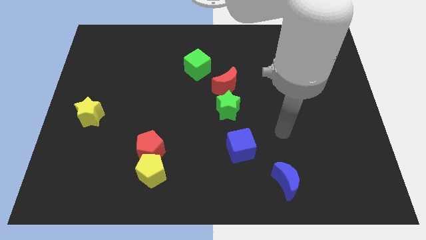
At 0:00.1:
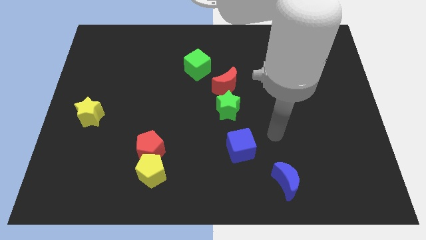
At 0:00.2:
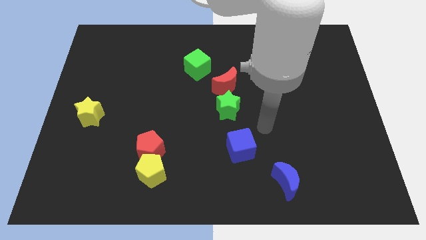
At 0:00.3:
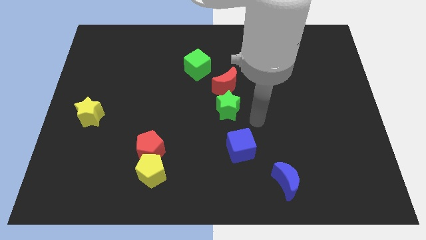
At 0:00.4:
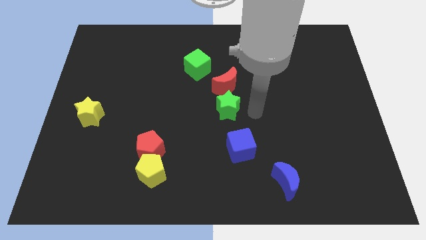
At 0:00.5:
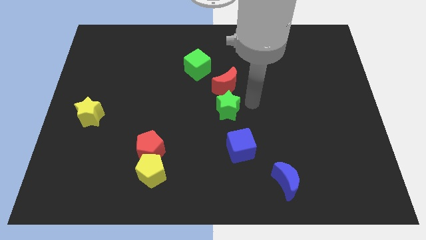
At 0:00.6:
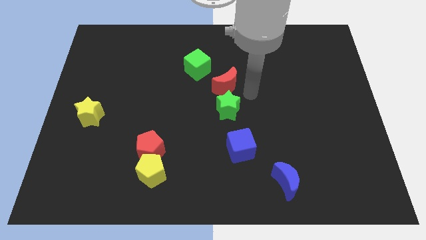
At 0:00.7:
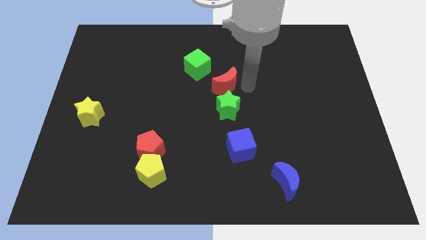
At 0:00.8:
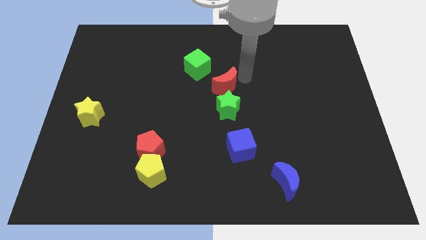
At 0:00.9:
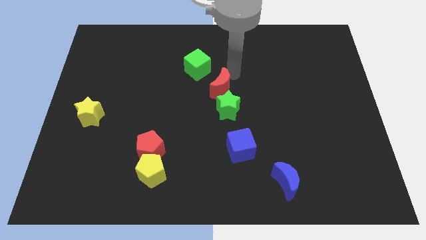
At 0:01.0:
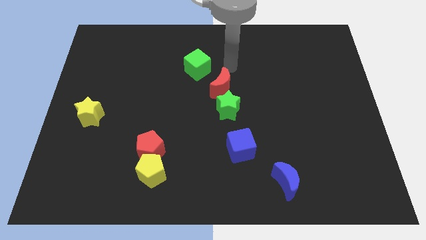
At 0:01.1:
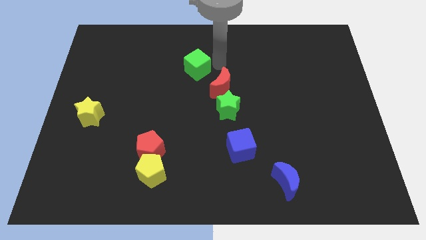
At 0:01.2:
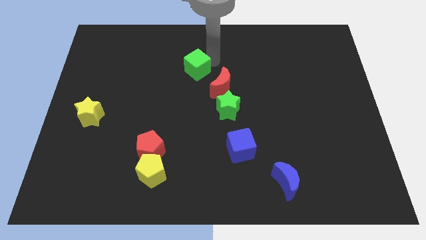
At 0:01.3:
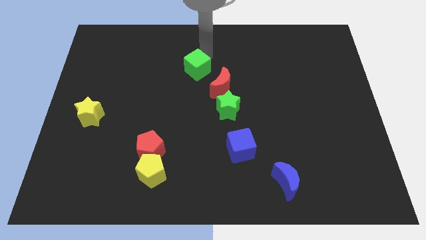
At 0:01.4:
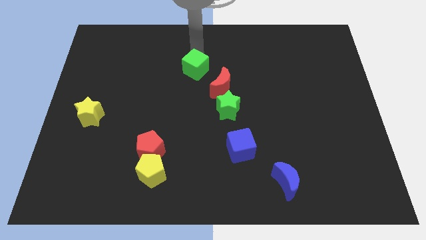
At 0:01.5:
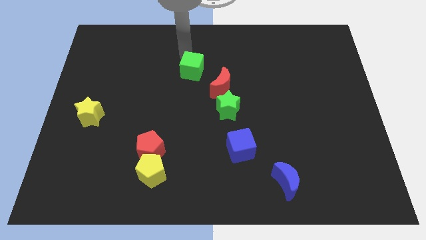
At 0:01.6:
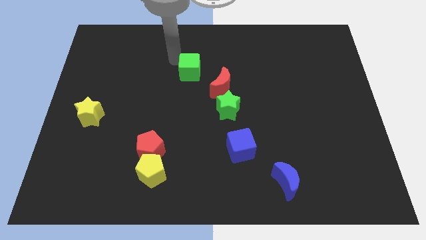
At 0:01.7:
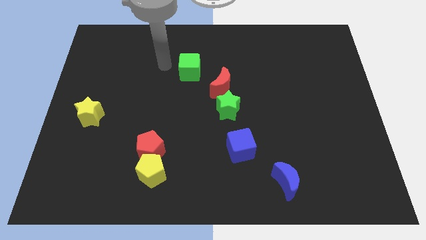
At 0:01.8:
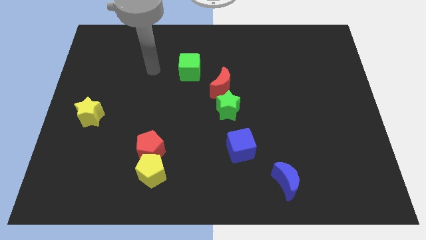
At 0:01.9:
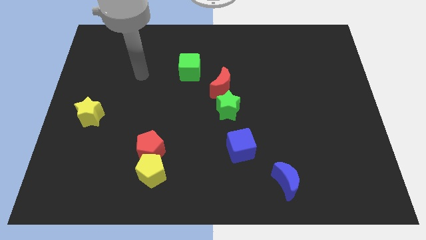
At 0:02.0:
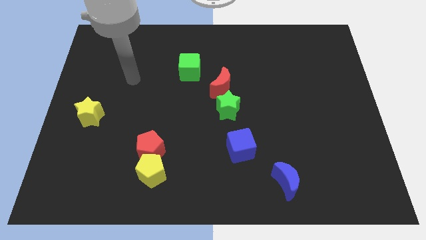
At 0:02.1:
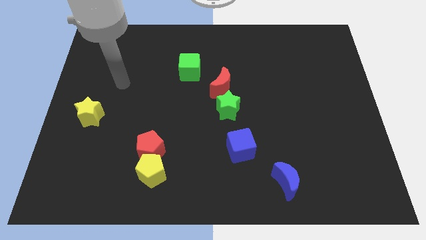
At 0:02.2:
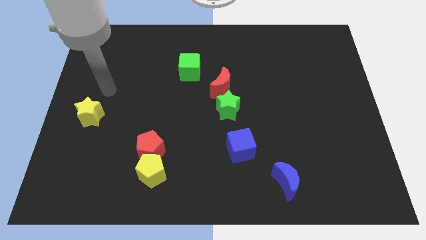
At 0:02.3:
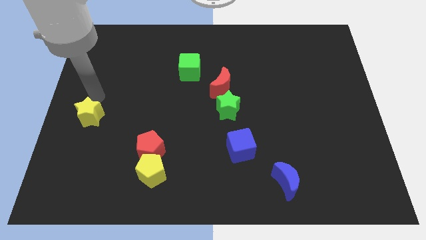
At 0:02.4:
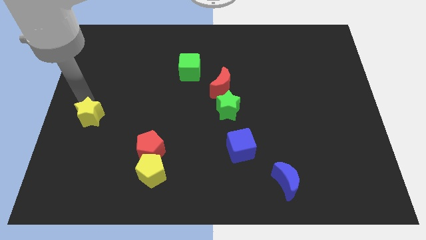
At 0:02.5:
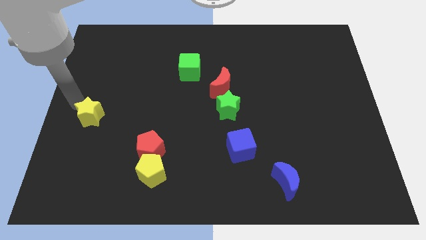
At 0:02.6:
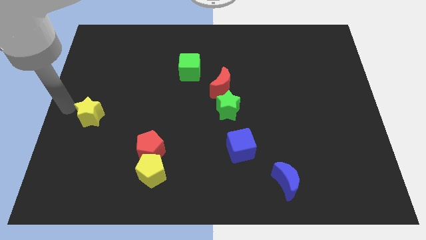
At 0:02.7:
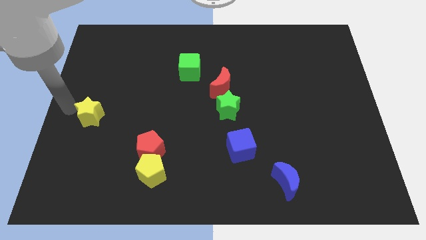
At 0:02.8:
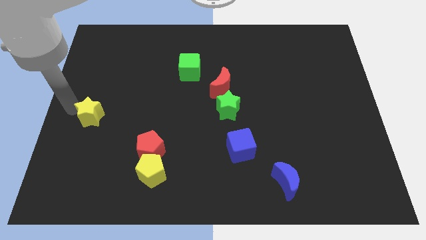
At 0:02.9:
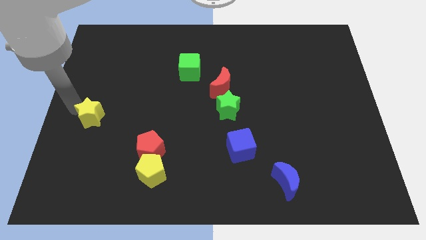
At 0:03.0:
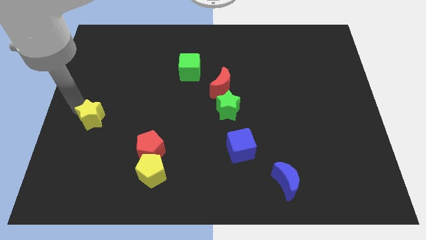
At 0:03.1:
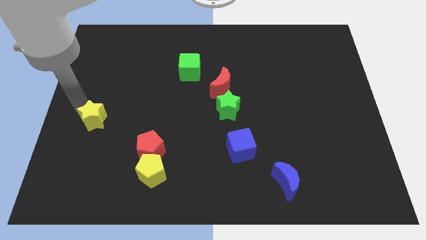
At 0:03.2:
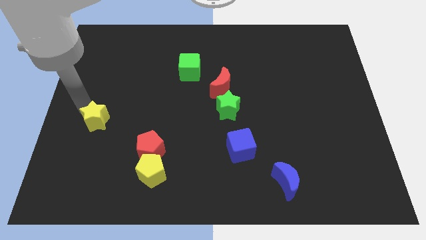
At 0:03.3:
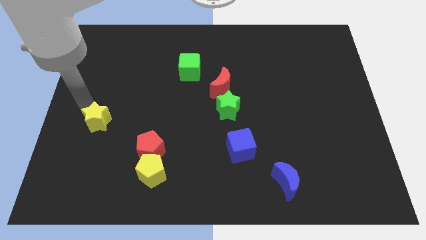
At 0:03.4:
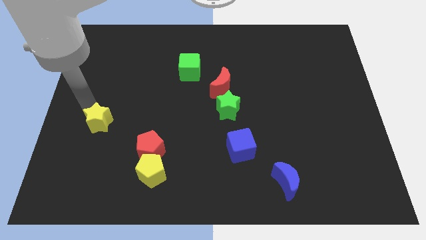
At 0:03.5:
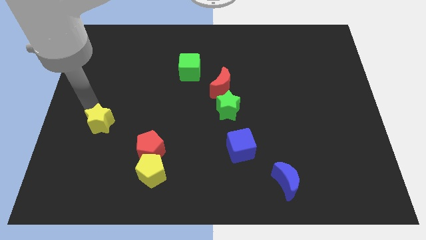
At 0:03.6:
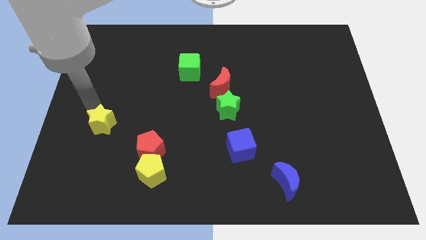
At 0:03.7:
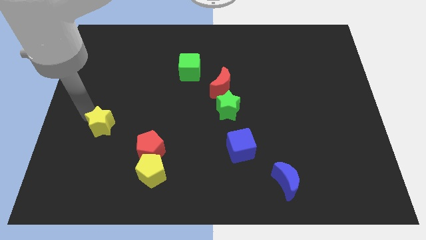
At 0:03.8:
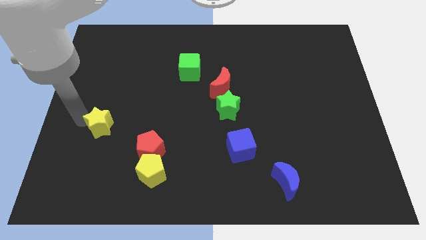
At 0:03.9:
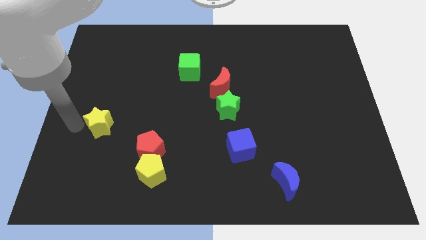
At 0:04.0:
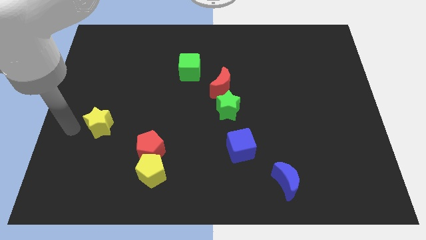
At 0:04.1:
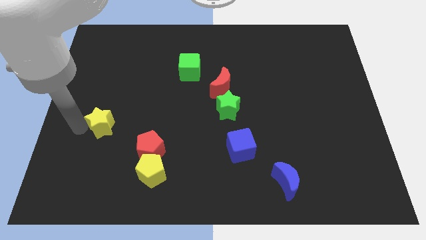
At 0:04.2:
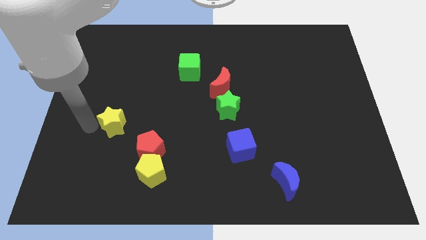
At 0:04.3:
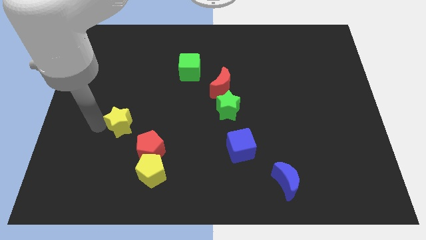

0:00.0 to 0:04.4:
push the yellow star right a little bit

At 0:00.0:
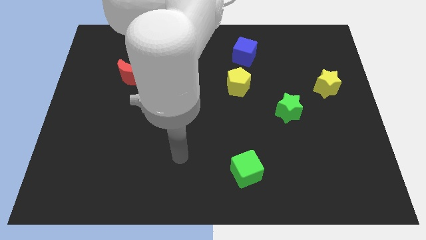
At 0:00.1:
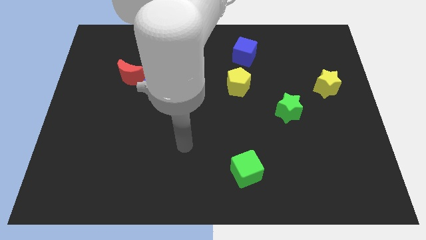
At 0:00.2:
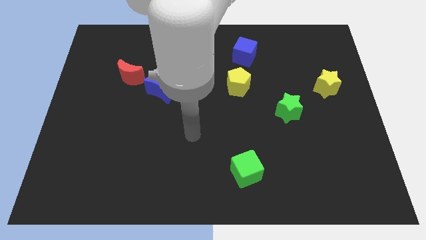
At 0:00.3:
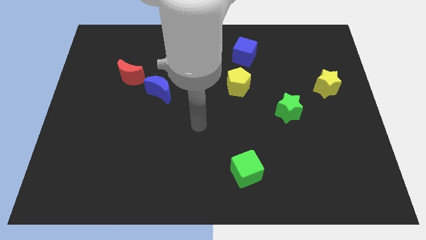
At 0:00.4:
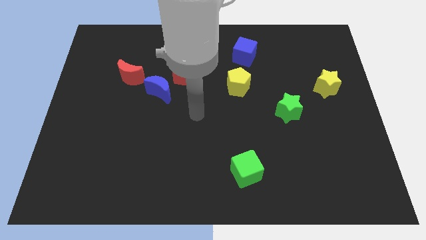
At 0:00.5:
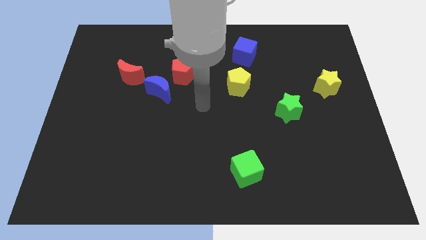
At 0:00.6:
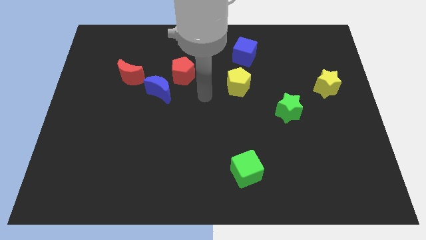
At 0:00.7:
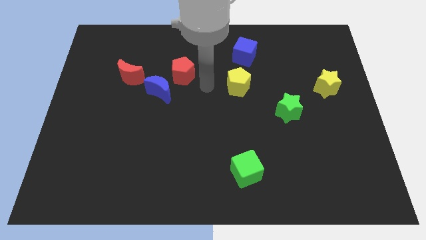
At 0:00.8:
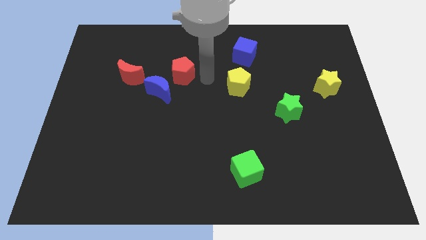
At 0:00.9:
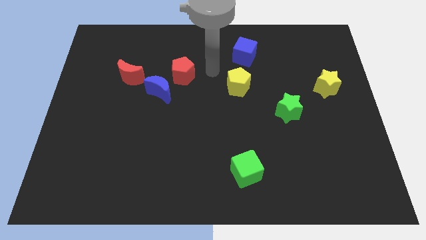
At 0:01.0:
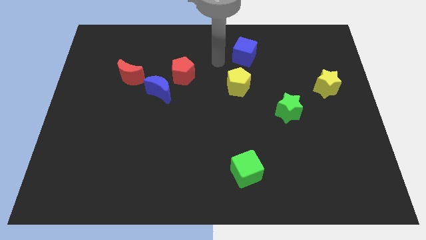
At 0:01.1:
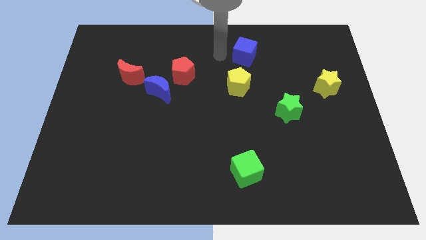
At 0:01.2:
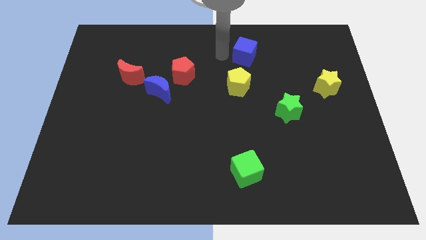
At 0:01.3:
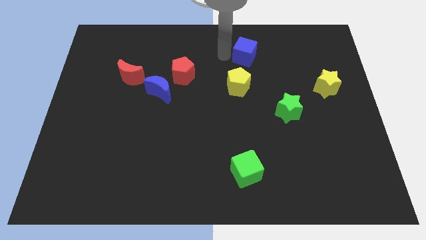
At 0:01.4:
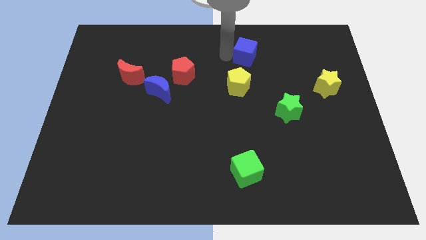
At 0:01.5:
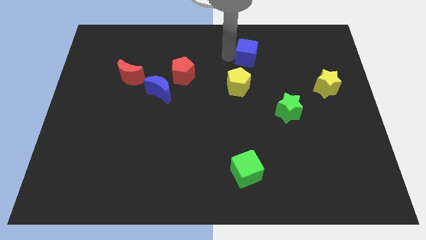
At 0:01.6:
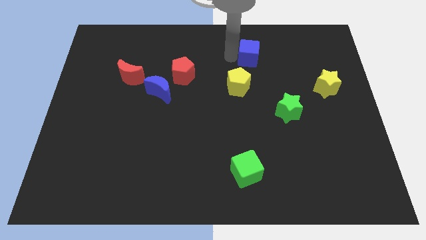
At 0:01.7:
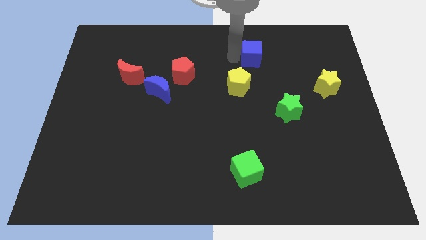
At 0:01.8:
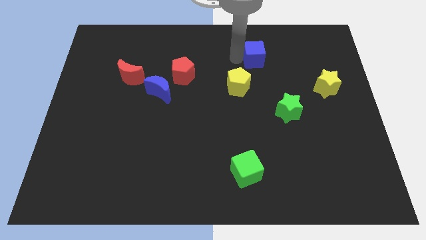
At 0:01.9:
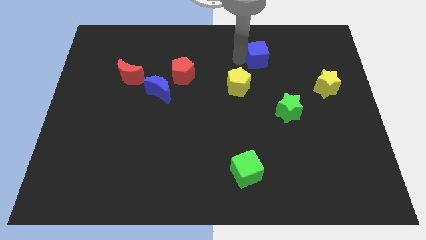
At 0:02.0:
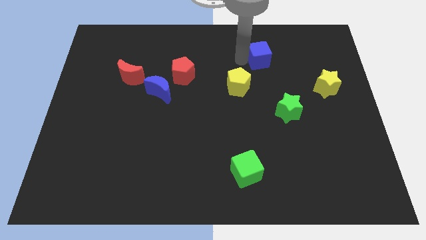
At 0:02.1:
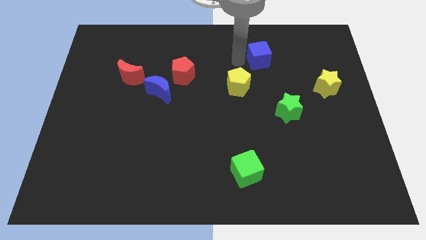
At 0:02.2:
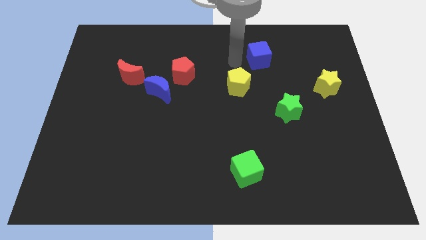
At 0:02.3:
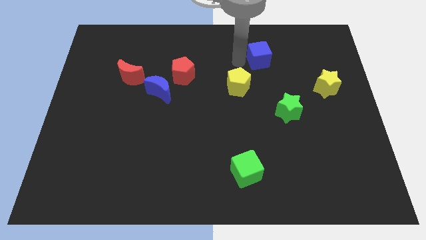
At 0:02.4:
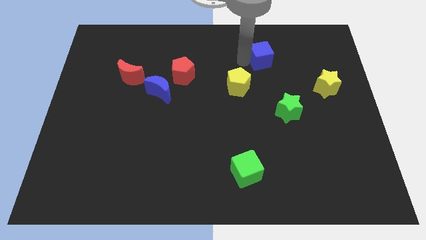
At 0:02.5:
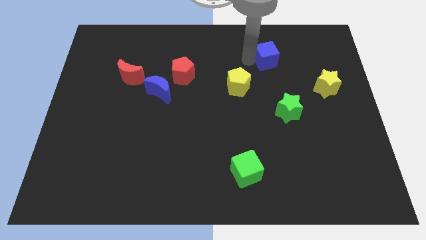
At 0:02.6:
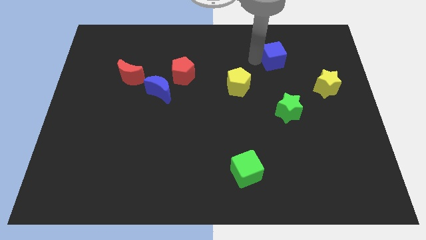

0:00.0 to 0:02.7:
move the blue cube a little bit right

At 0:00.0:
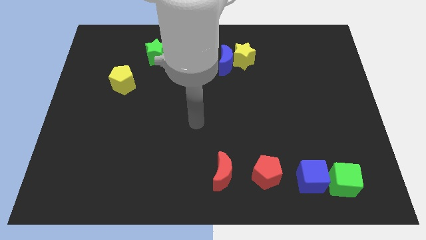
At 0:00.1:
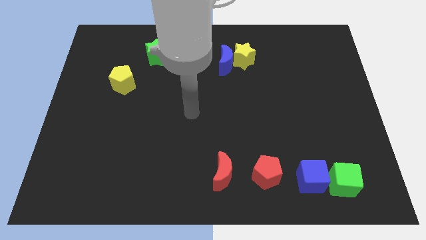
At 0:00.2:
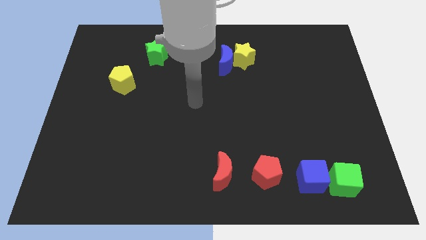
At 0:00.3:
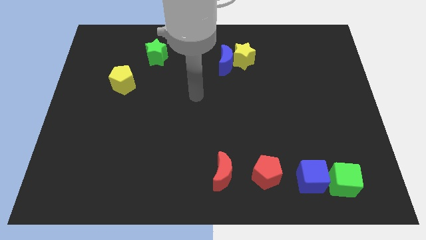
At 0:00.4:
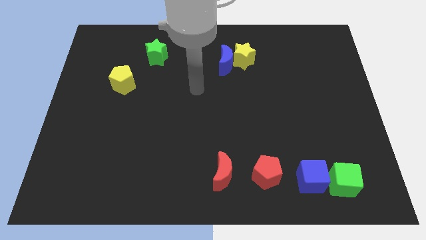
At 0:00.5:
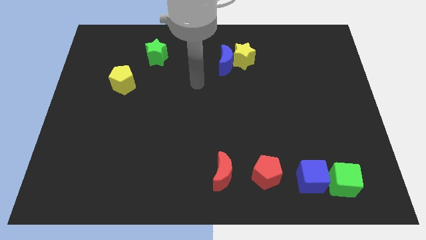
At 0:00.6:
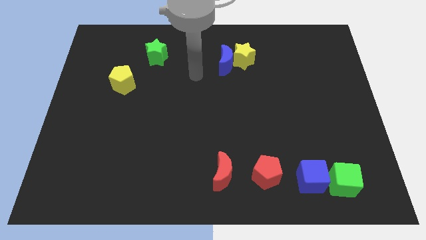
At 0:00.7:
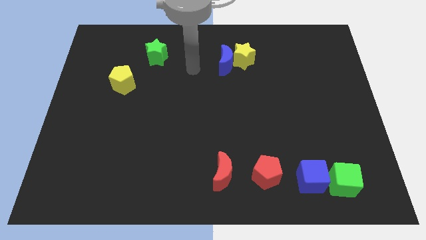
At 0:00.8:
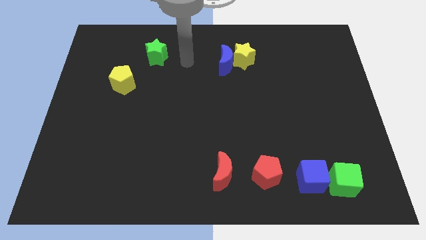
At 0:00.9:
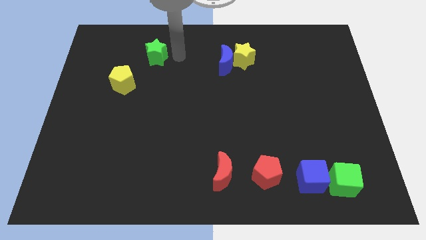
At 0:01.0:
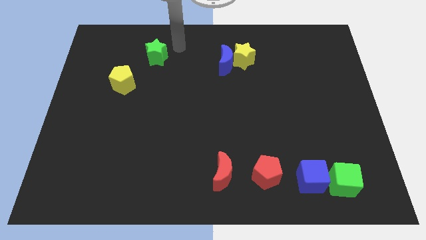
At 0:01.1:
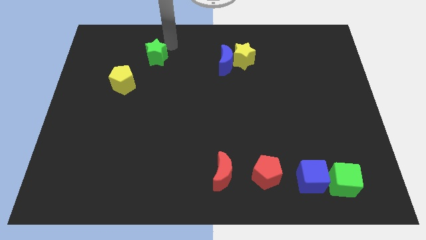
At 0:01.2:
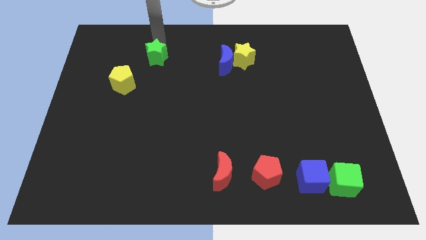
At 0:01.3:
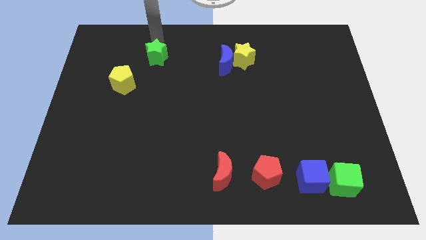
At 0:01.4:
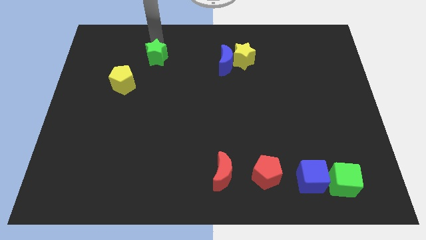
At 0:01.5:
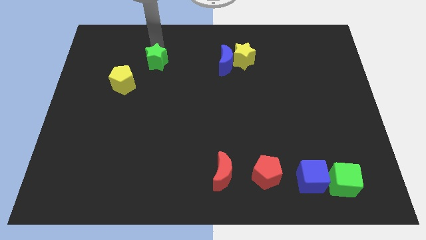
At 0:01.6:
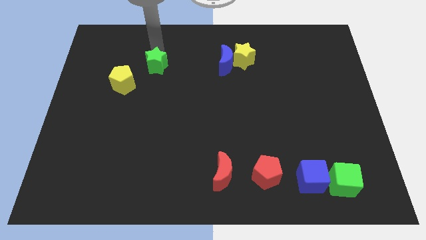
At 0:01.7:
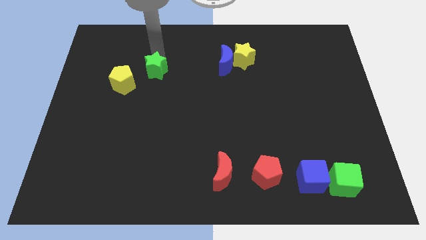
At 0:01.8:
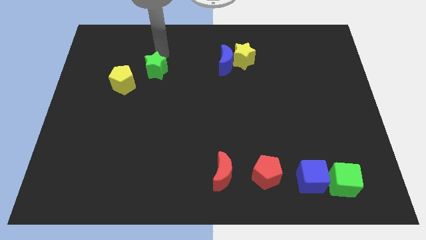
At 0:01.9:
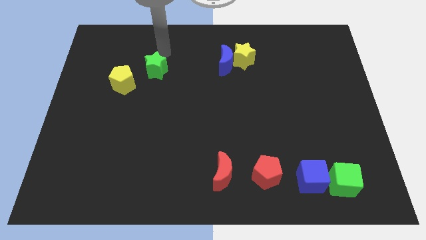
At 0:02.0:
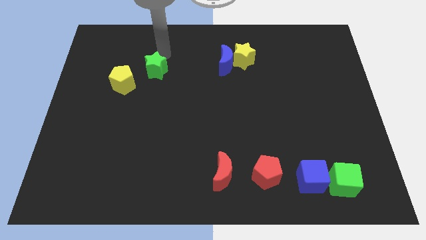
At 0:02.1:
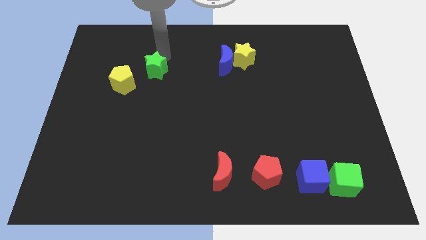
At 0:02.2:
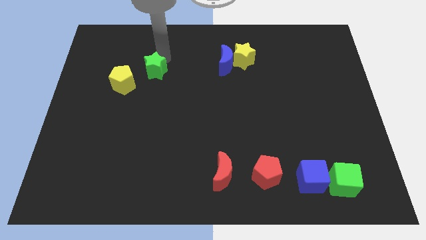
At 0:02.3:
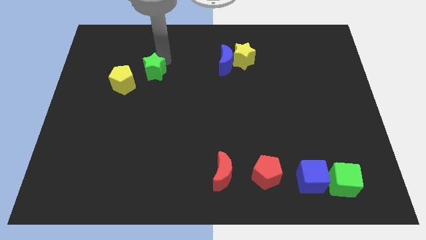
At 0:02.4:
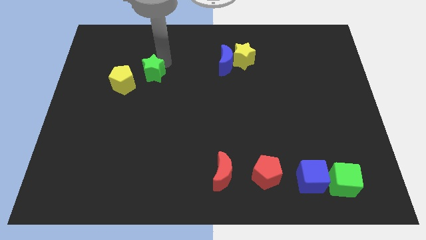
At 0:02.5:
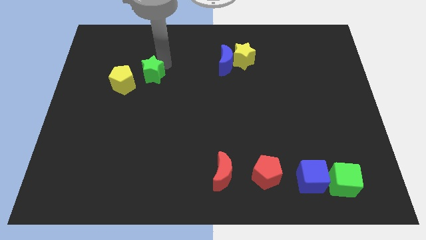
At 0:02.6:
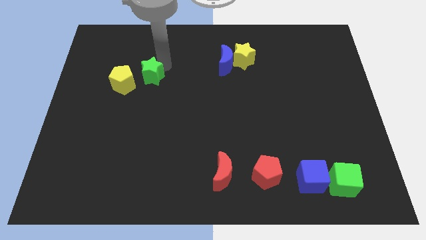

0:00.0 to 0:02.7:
slightly push the green star downwards